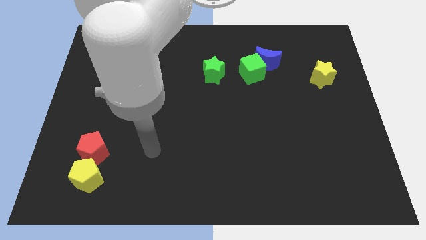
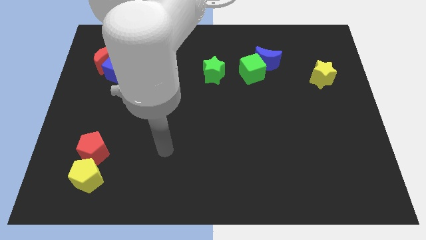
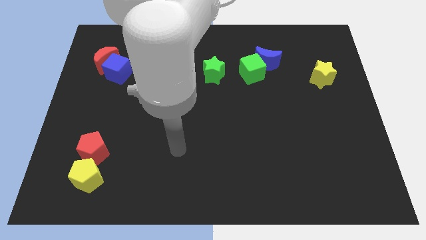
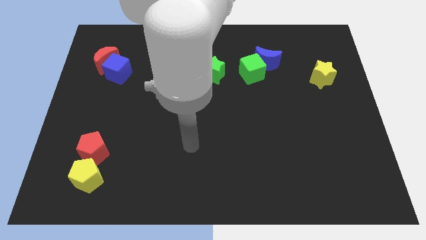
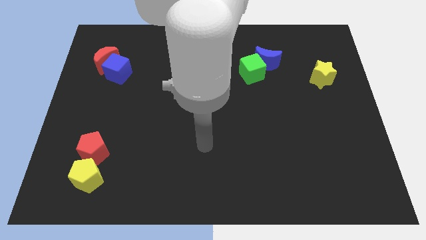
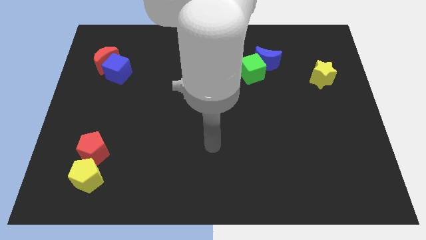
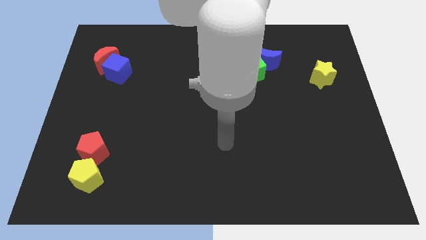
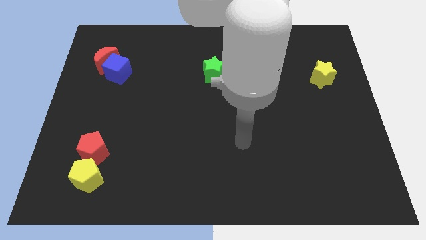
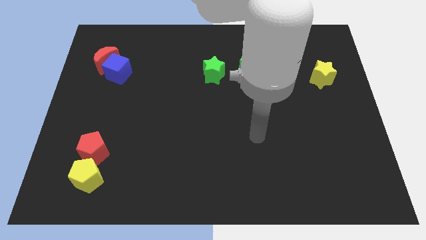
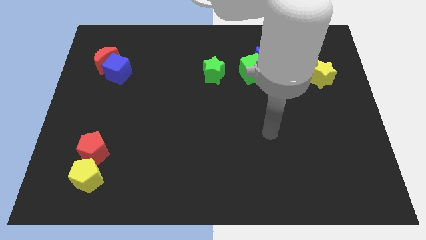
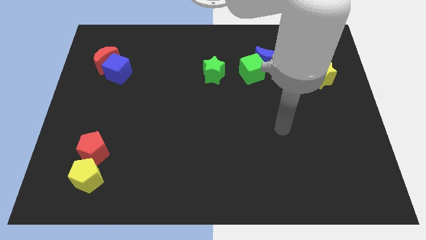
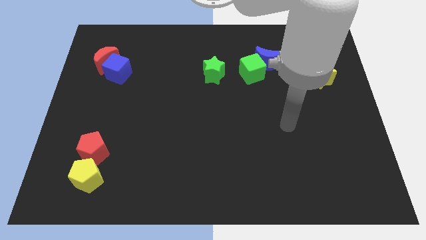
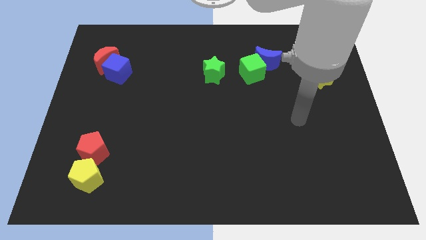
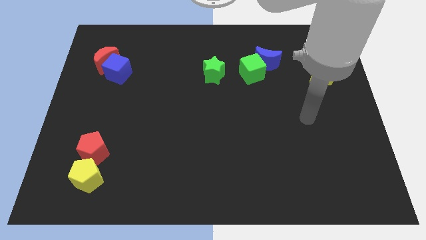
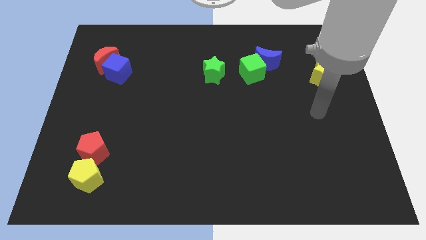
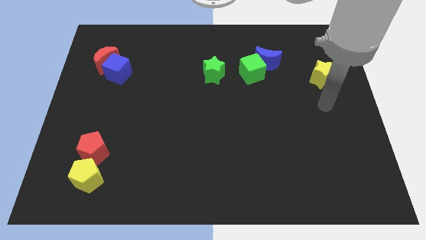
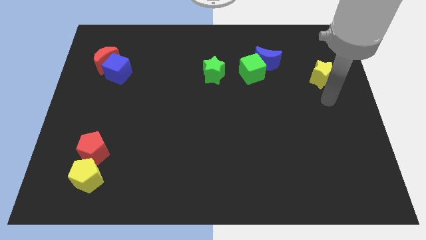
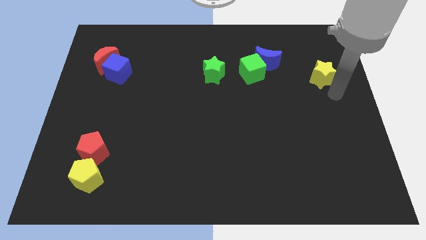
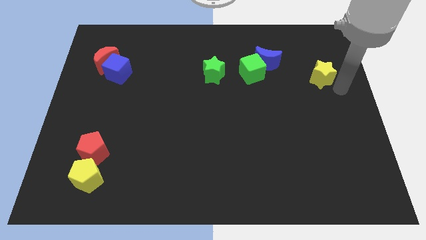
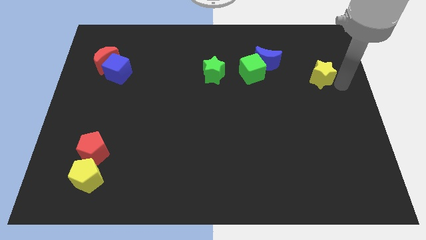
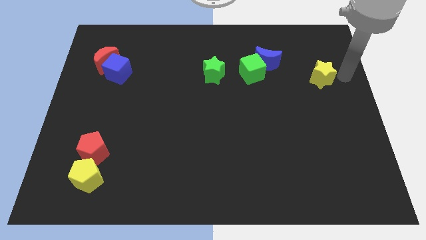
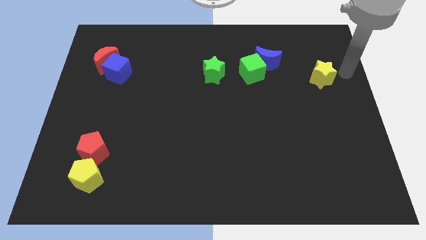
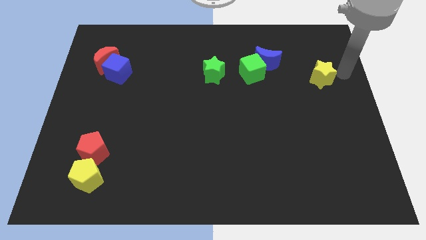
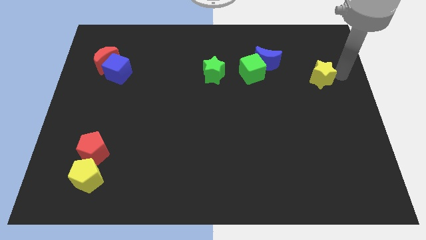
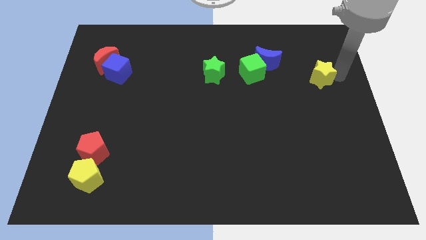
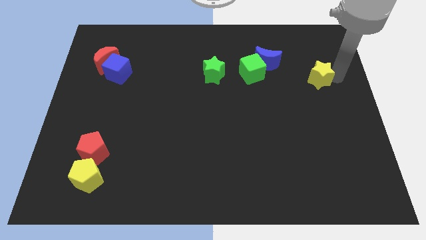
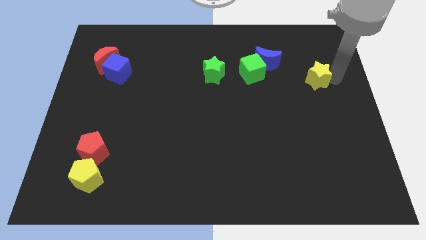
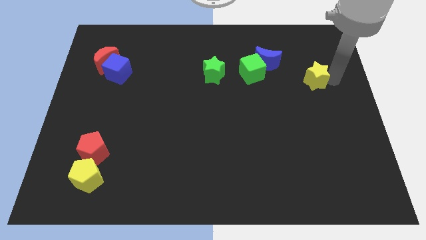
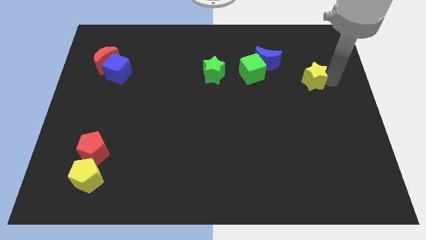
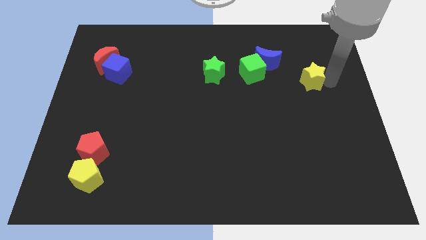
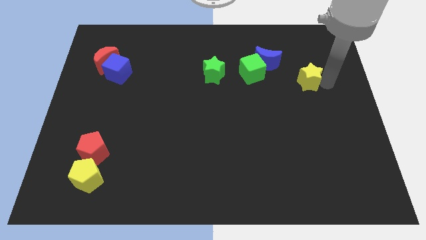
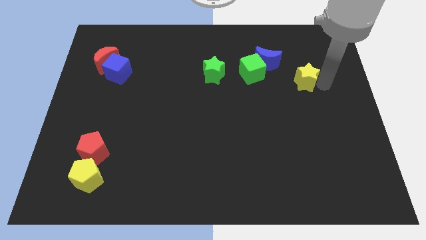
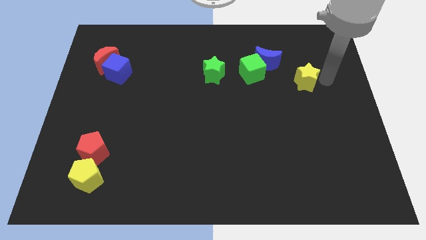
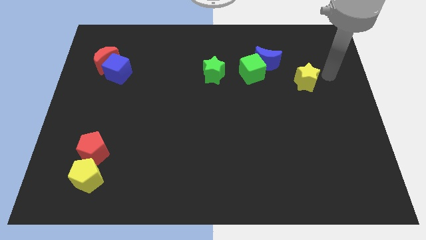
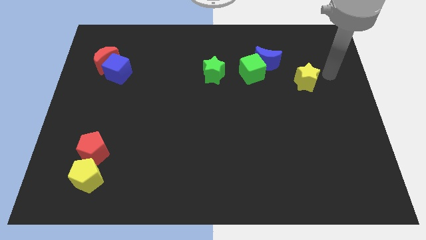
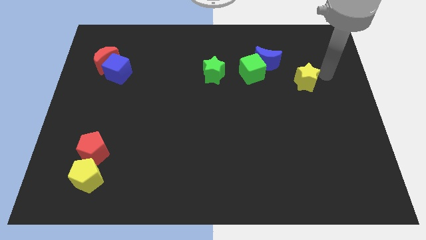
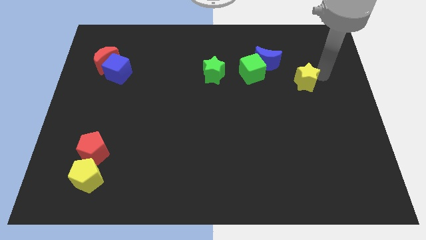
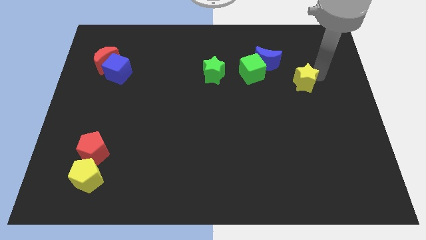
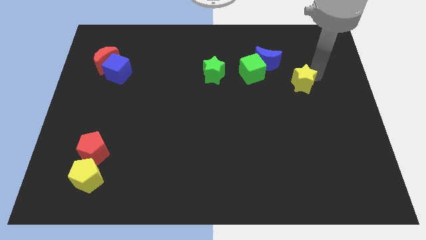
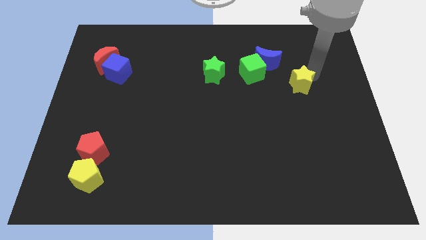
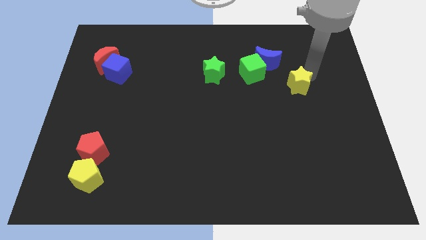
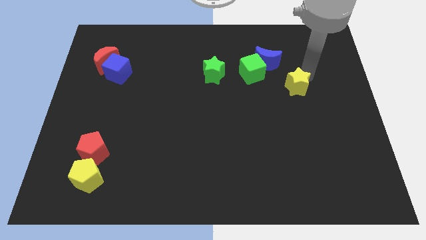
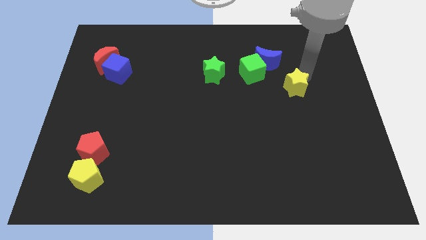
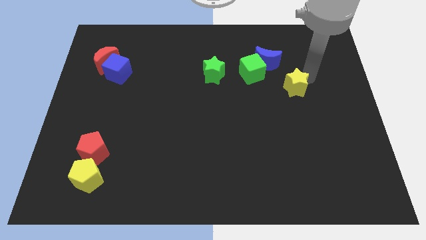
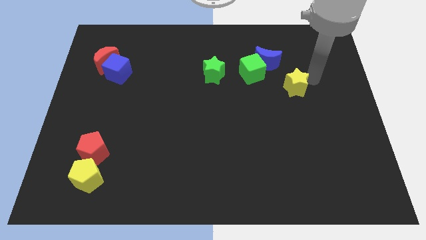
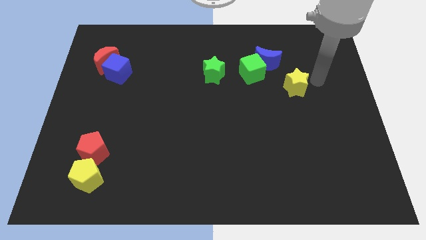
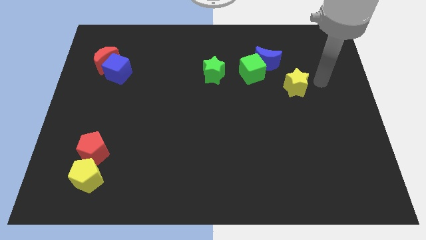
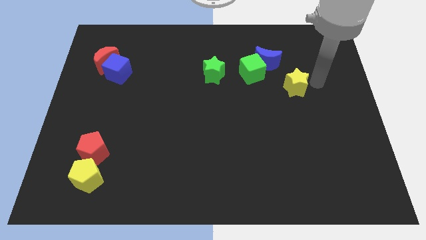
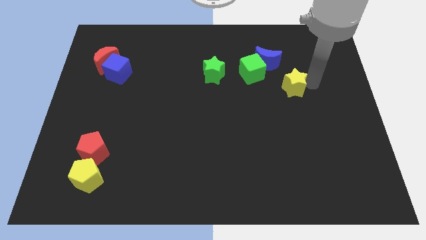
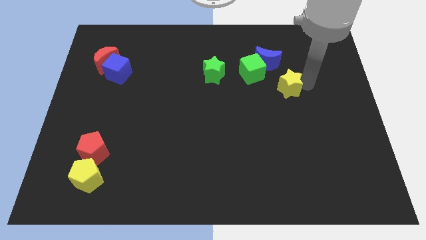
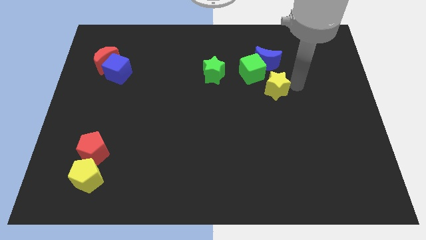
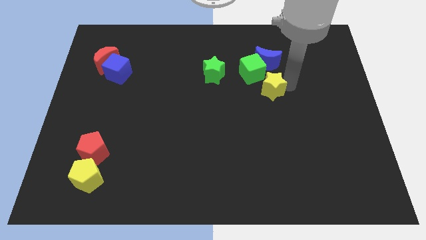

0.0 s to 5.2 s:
put the yellow star to the bottom side of the green cube

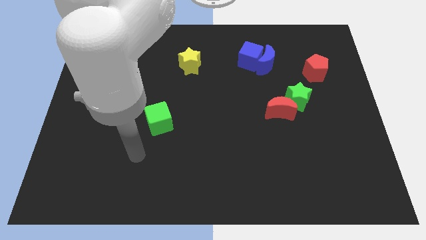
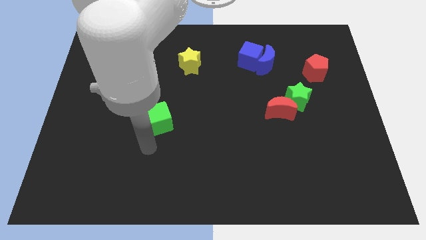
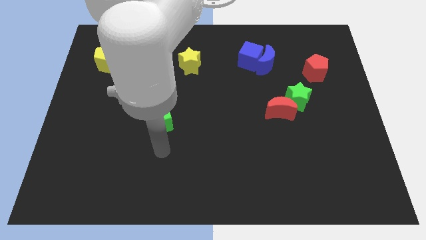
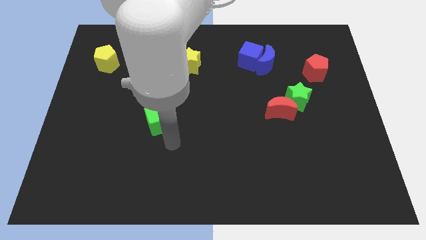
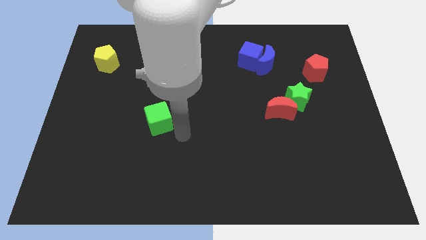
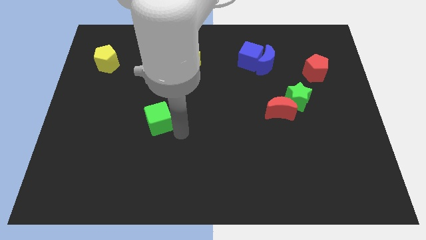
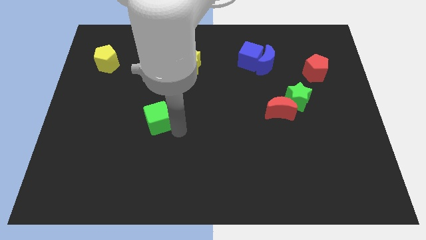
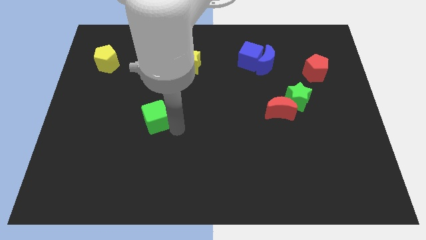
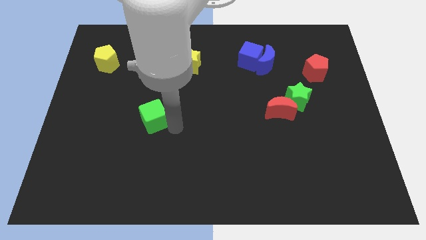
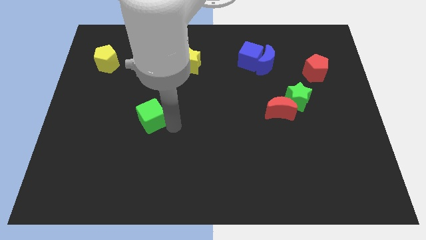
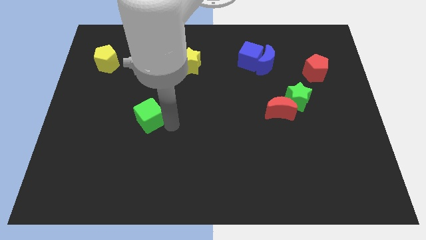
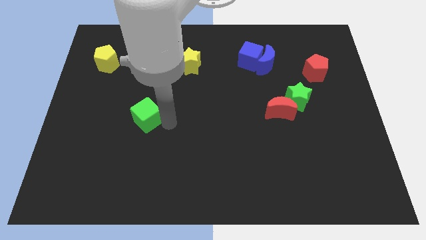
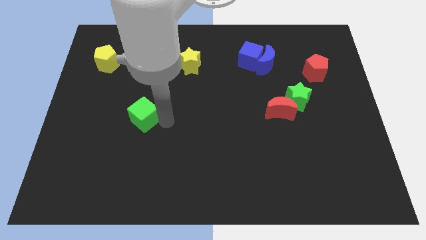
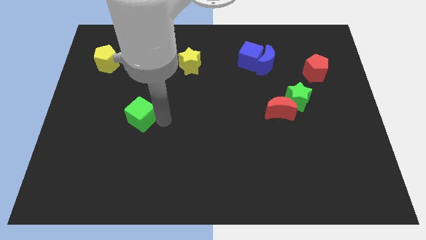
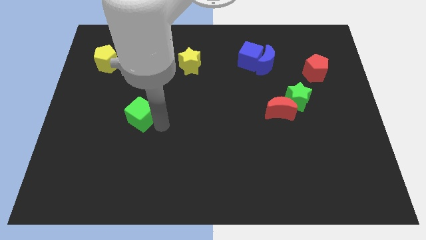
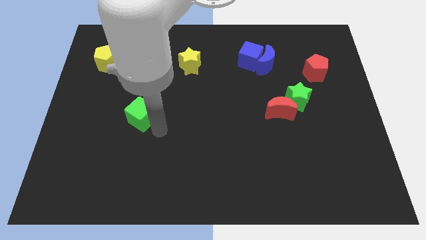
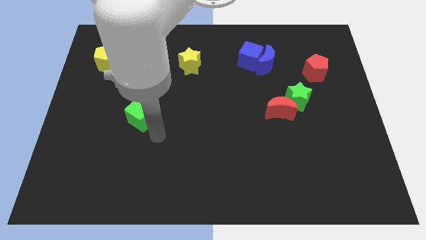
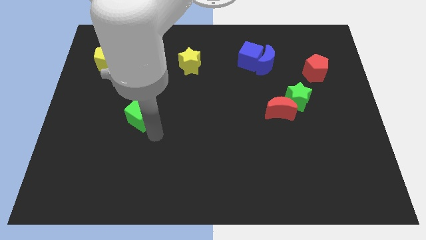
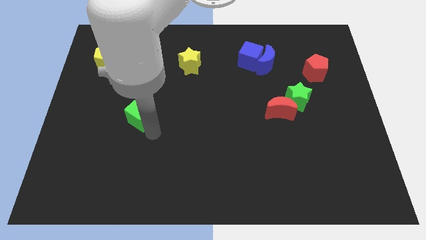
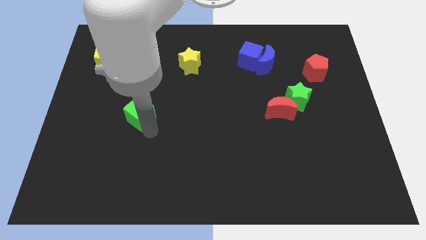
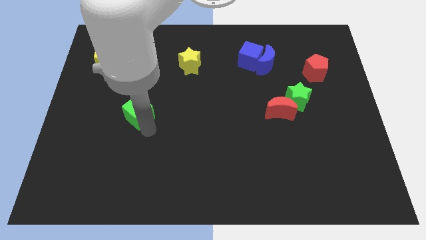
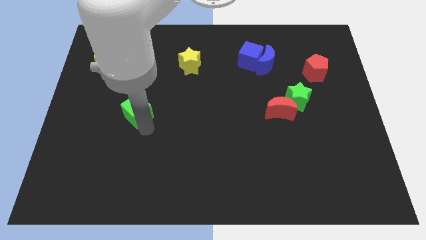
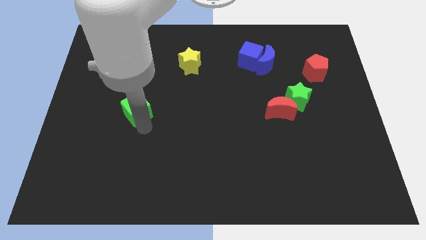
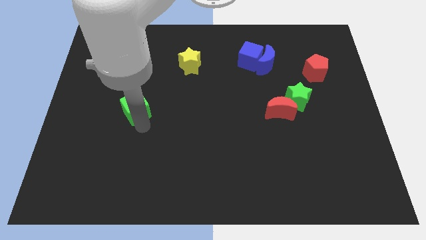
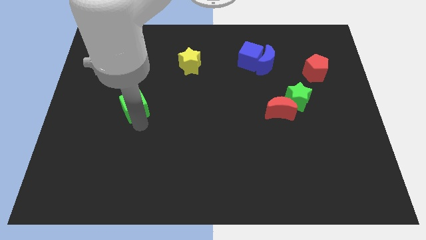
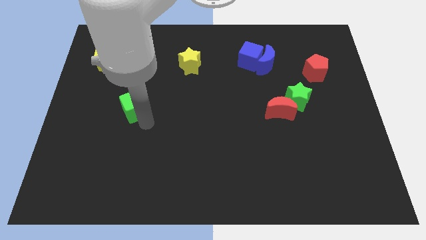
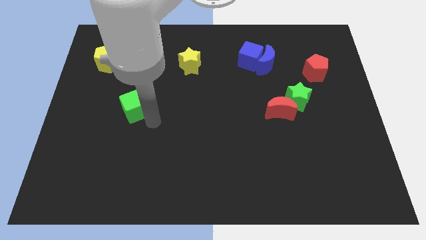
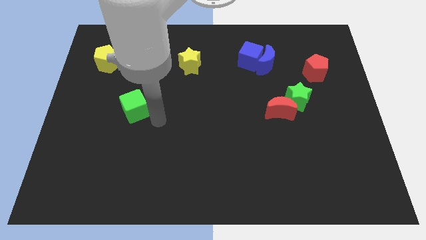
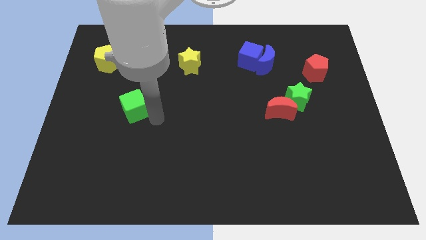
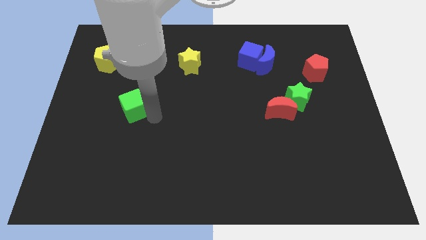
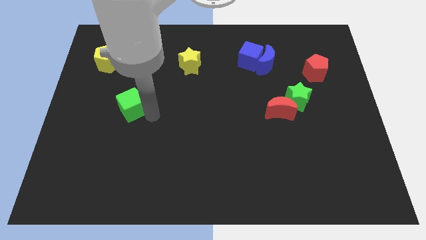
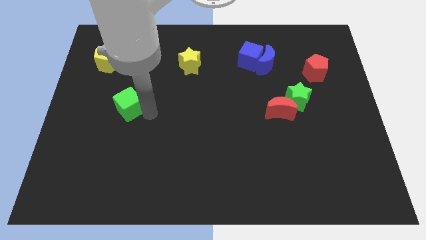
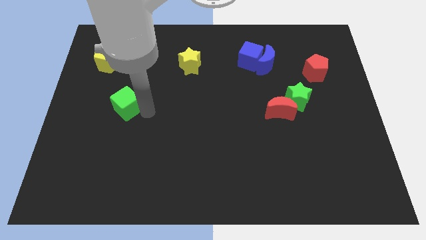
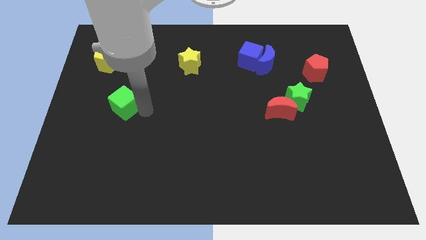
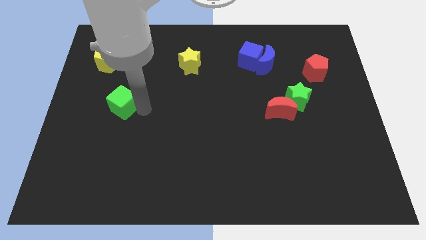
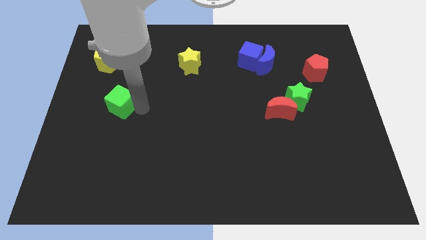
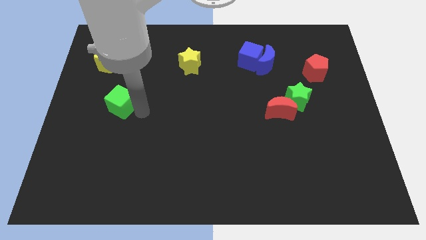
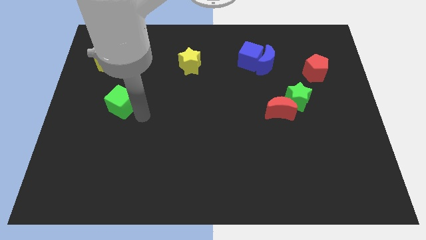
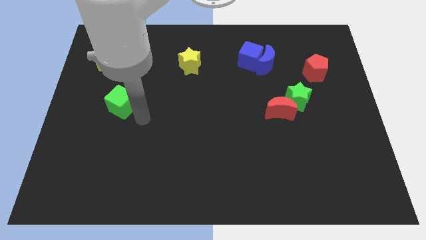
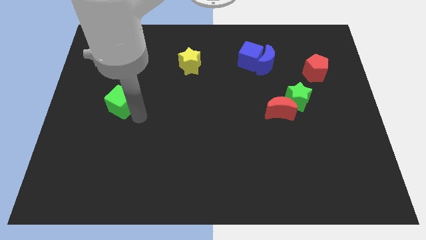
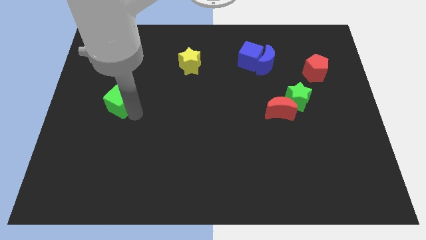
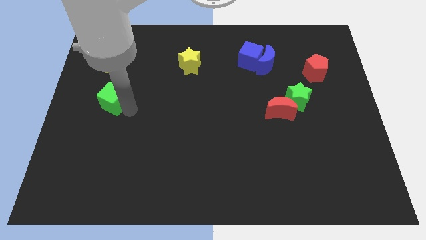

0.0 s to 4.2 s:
put the green cube below the yellow pentagon
